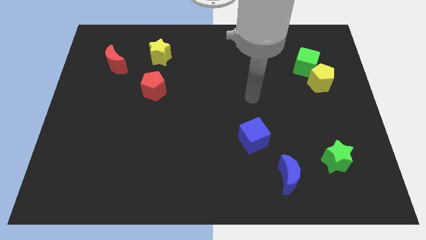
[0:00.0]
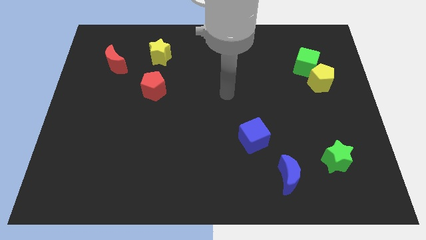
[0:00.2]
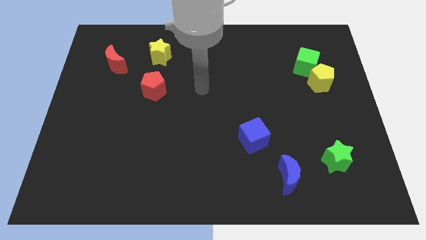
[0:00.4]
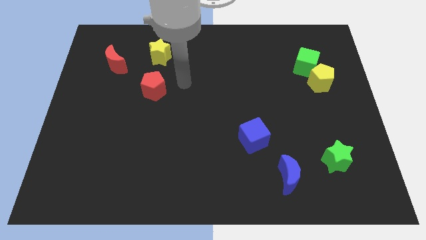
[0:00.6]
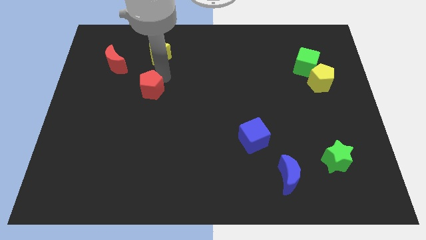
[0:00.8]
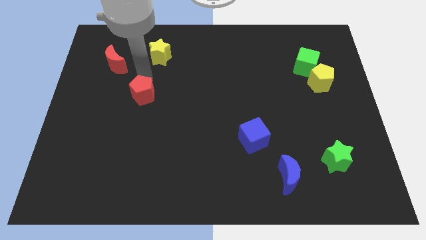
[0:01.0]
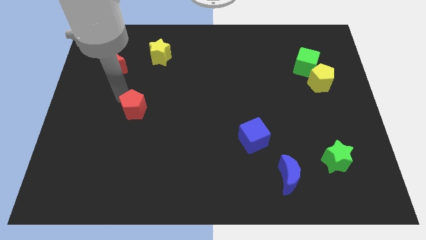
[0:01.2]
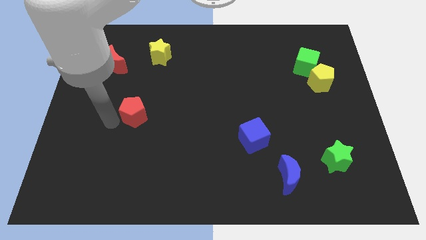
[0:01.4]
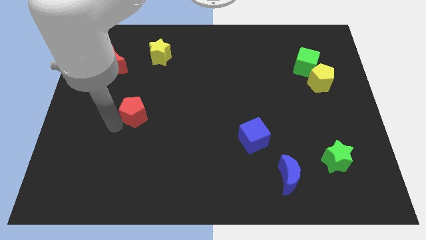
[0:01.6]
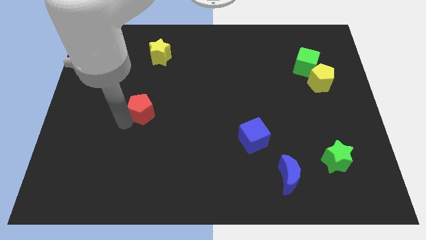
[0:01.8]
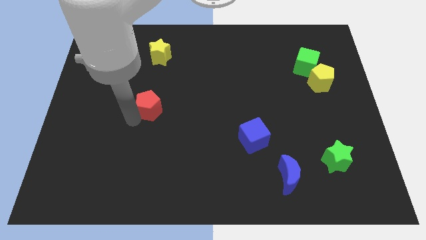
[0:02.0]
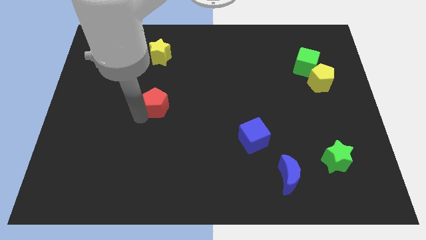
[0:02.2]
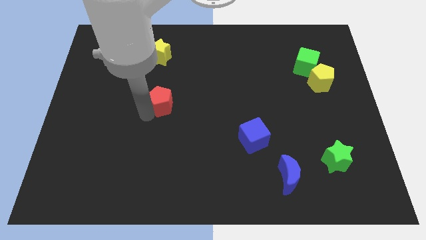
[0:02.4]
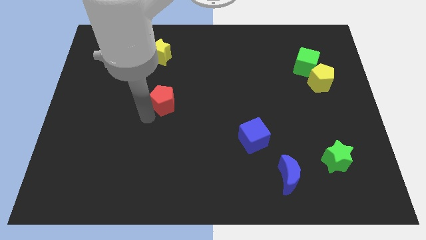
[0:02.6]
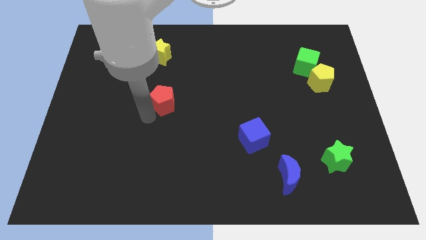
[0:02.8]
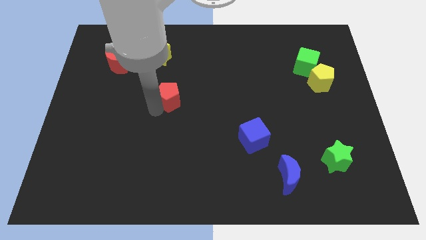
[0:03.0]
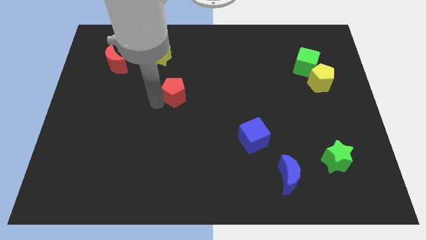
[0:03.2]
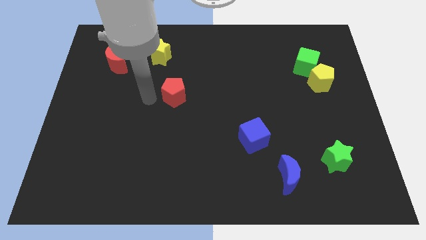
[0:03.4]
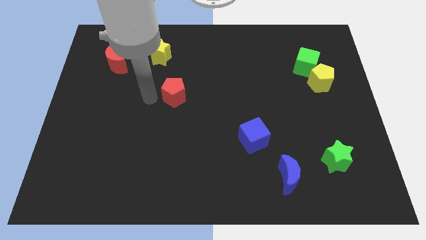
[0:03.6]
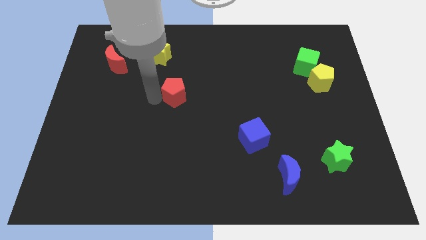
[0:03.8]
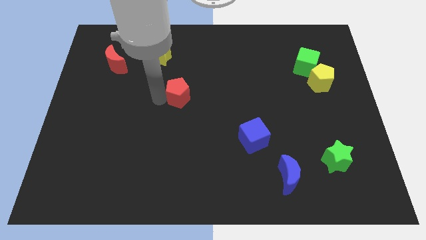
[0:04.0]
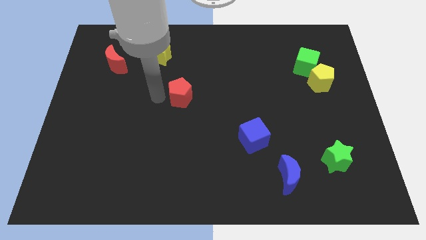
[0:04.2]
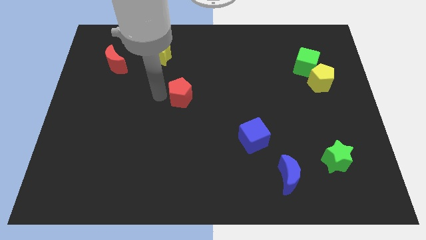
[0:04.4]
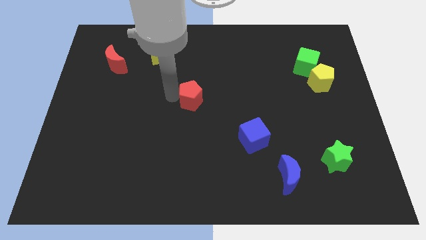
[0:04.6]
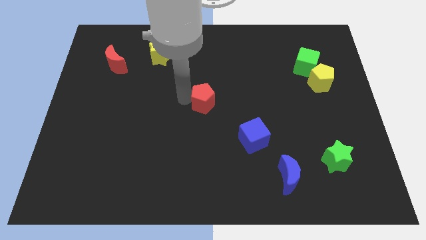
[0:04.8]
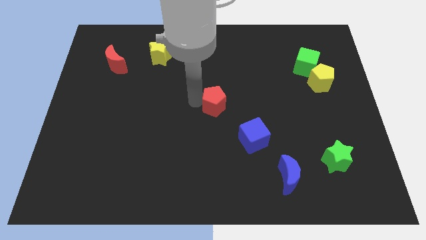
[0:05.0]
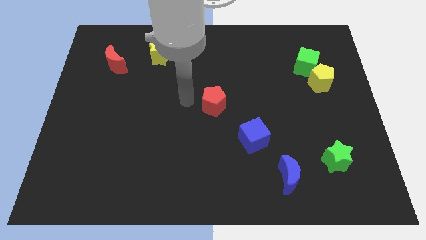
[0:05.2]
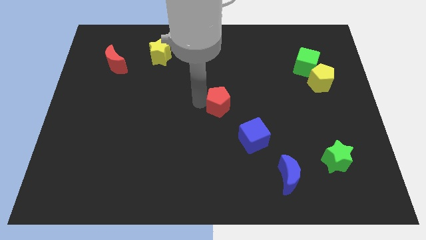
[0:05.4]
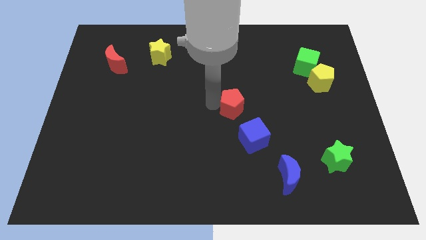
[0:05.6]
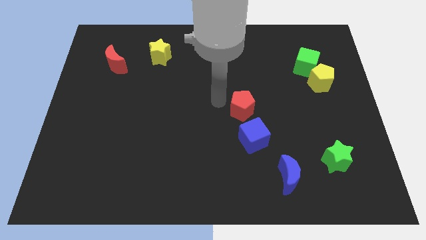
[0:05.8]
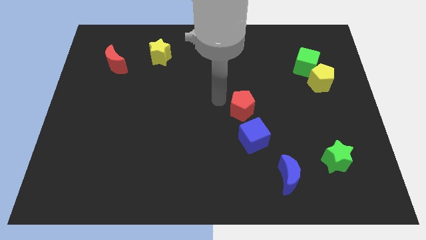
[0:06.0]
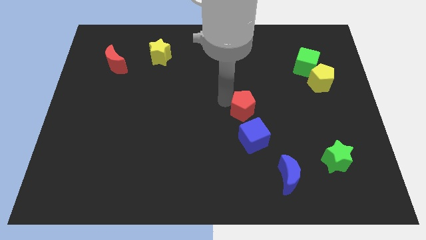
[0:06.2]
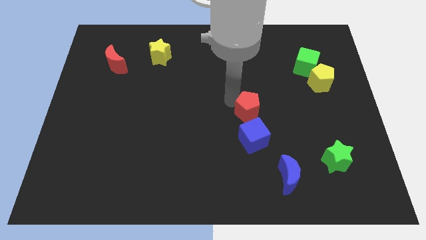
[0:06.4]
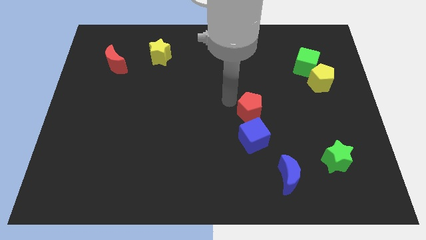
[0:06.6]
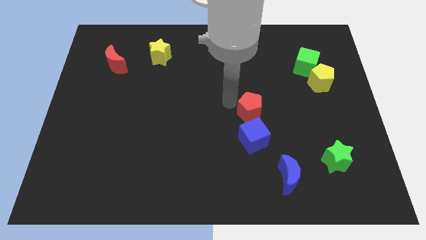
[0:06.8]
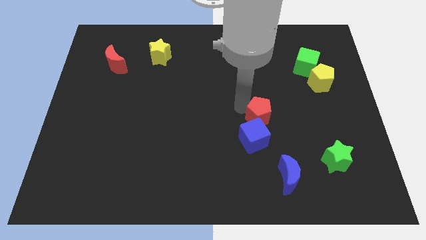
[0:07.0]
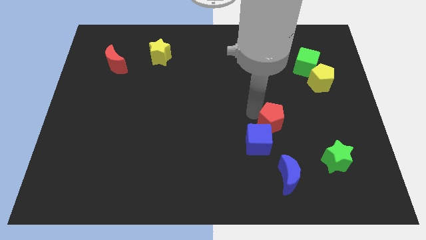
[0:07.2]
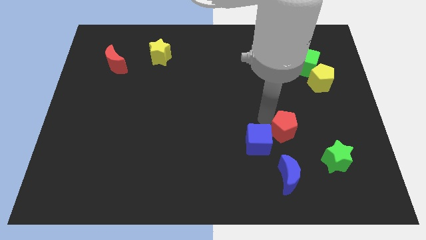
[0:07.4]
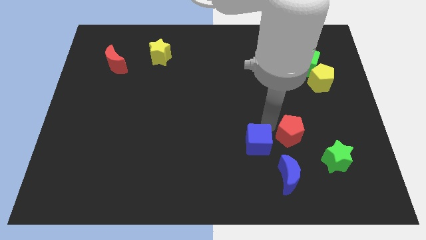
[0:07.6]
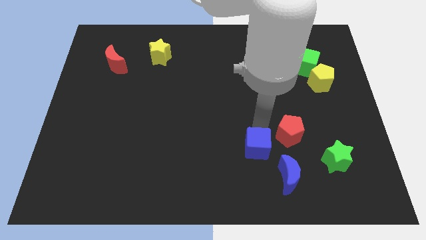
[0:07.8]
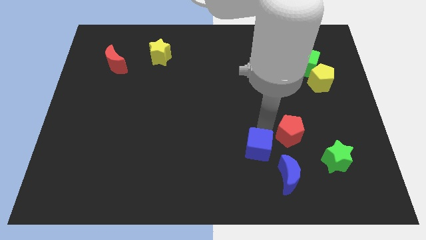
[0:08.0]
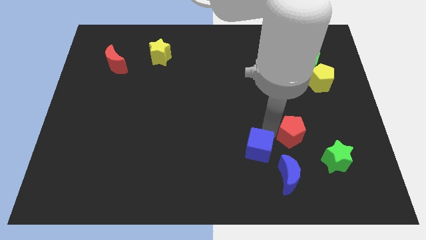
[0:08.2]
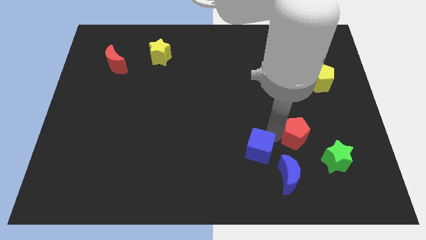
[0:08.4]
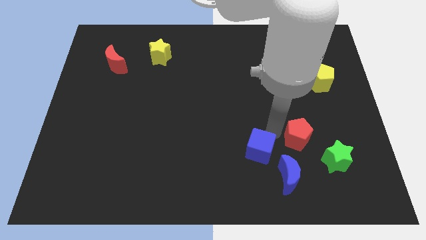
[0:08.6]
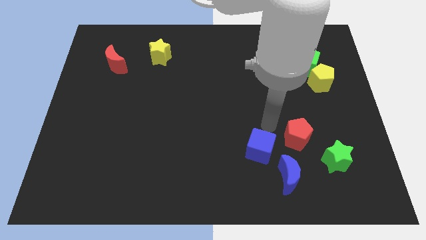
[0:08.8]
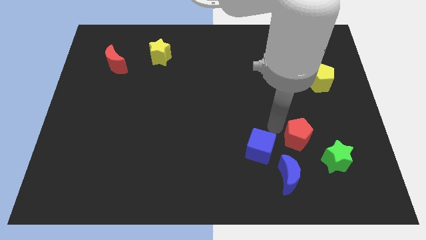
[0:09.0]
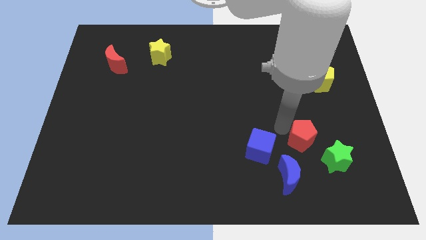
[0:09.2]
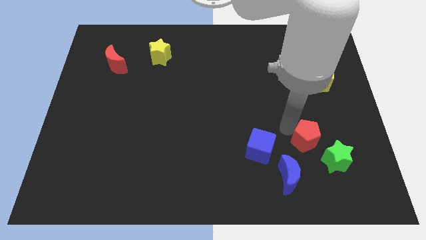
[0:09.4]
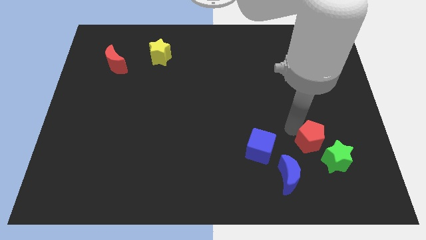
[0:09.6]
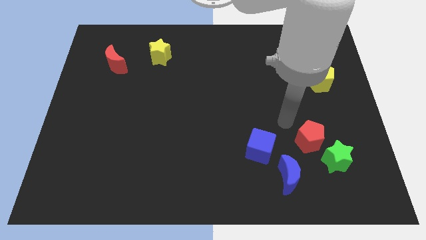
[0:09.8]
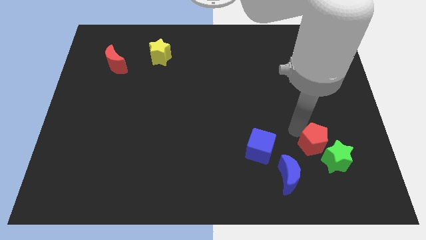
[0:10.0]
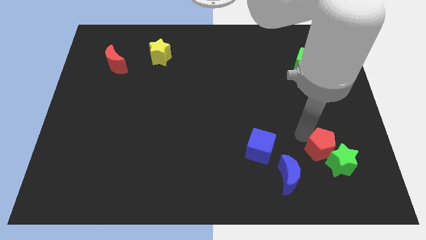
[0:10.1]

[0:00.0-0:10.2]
move the red pentagon towards the green star

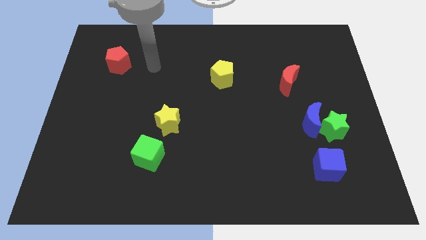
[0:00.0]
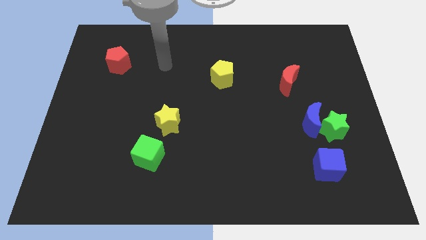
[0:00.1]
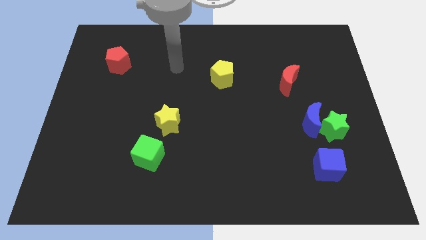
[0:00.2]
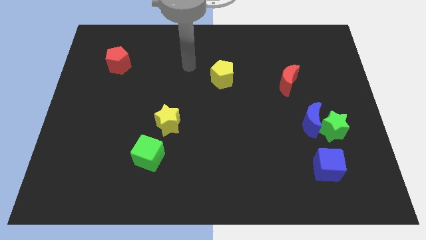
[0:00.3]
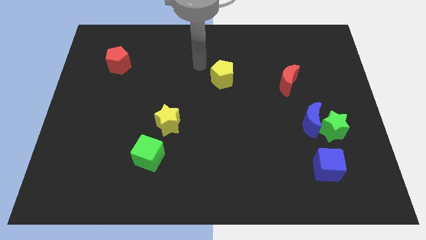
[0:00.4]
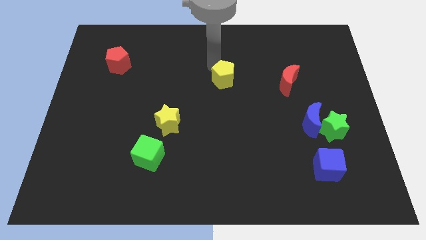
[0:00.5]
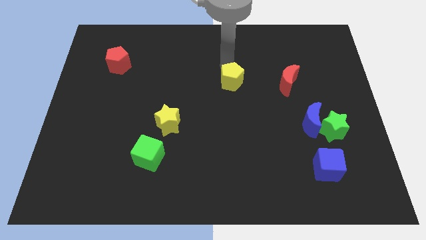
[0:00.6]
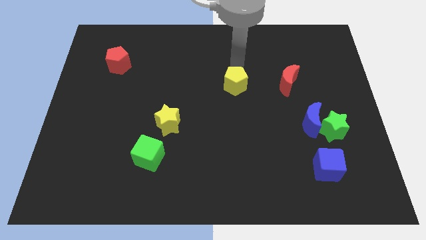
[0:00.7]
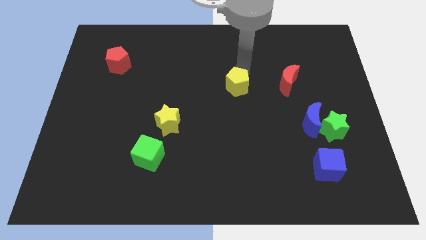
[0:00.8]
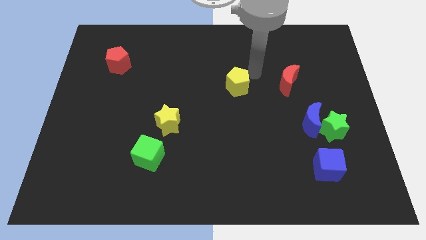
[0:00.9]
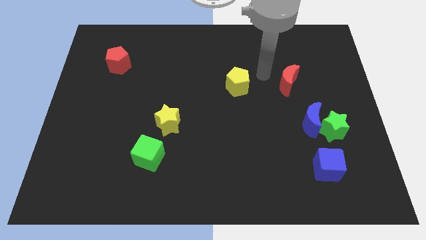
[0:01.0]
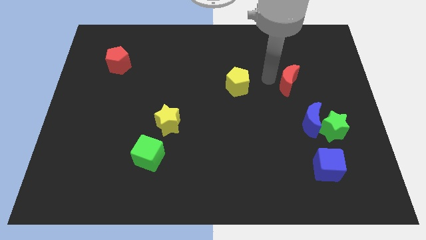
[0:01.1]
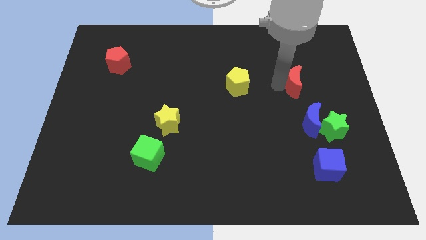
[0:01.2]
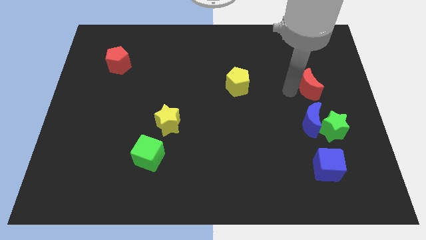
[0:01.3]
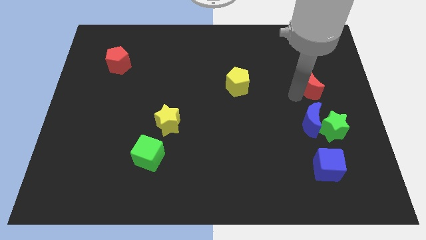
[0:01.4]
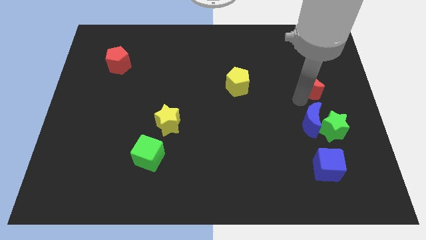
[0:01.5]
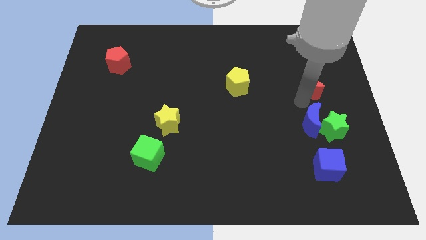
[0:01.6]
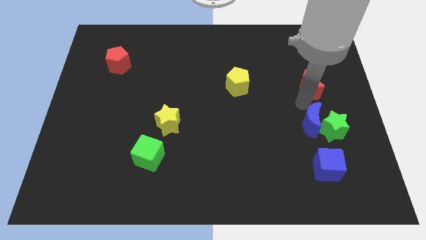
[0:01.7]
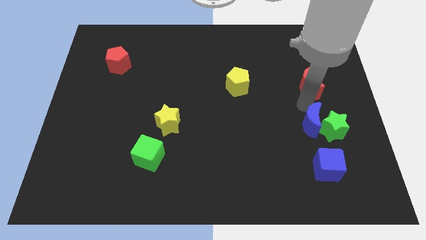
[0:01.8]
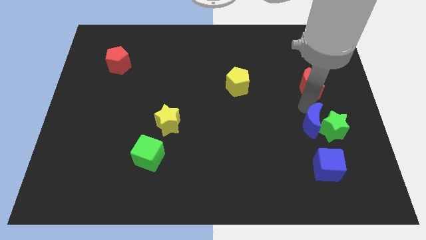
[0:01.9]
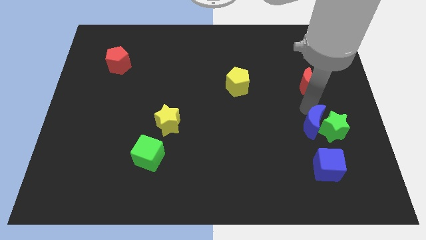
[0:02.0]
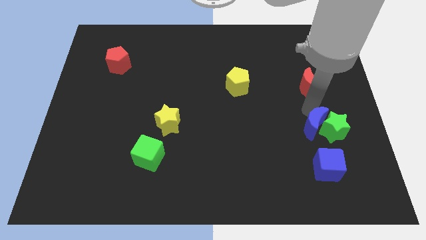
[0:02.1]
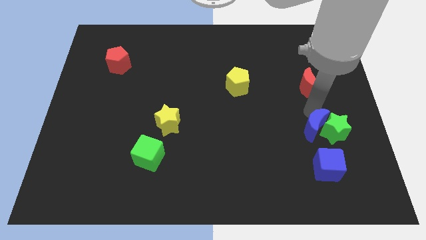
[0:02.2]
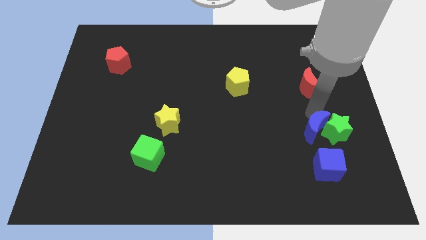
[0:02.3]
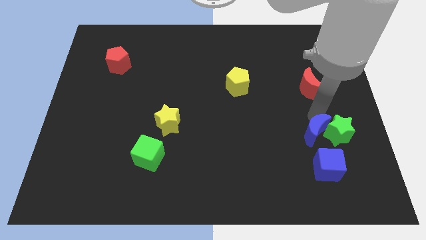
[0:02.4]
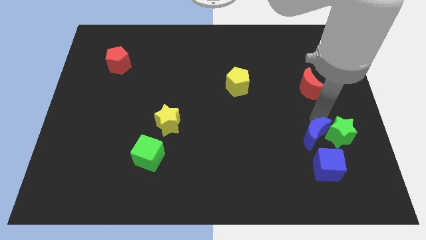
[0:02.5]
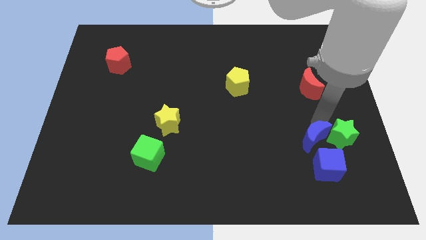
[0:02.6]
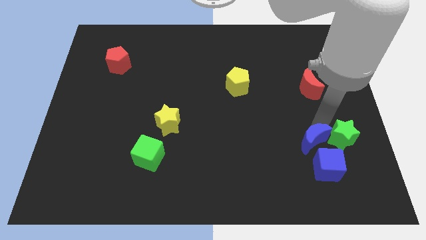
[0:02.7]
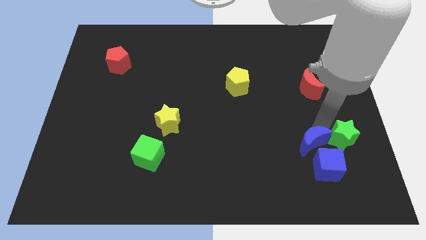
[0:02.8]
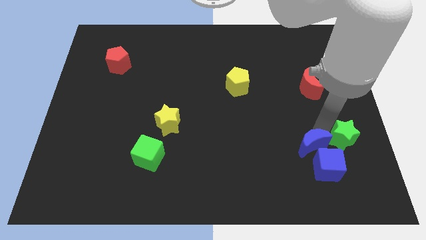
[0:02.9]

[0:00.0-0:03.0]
move the blue moon to the blue cube
